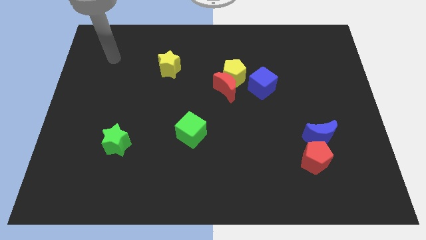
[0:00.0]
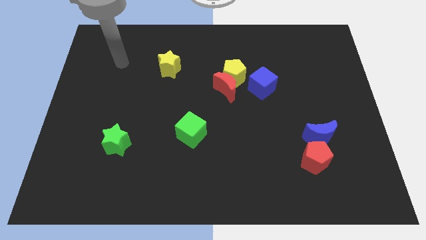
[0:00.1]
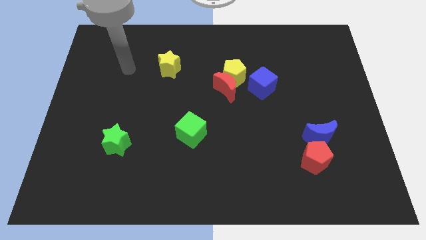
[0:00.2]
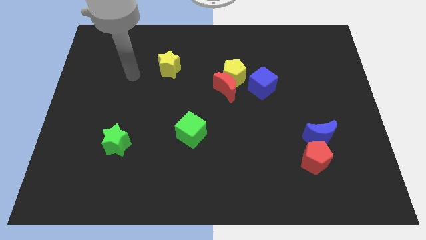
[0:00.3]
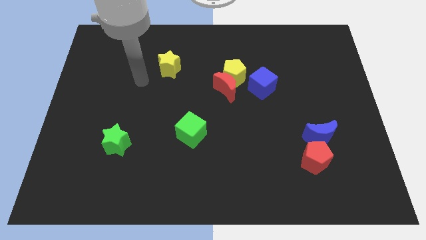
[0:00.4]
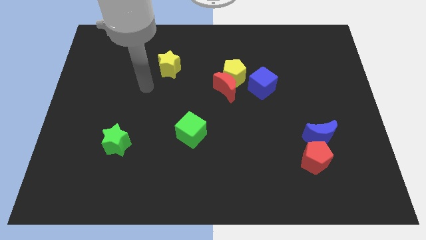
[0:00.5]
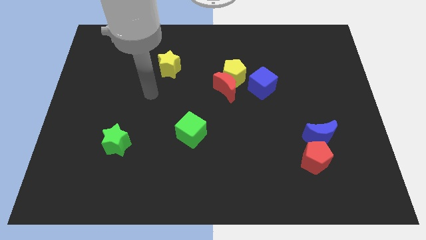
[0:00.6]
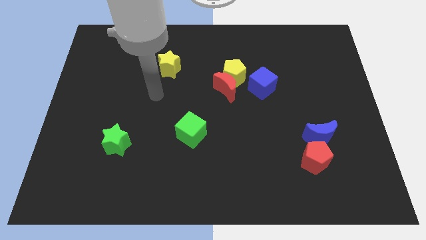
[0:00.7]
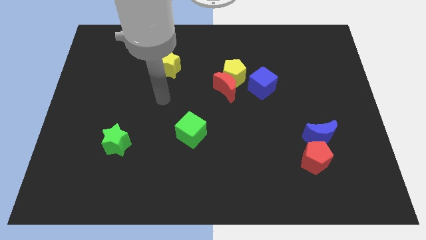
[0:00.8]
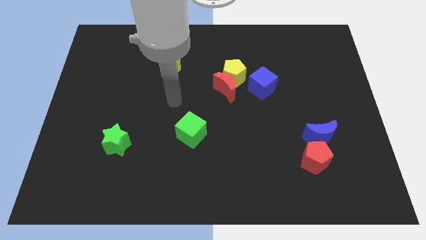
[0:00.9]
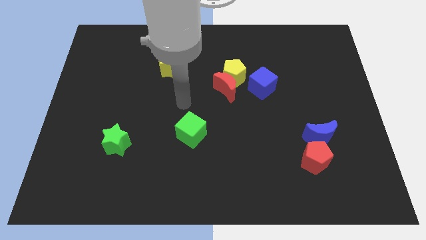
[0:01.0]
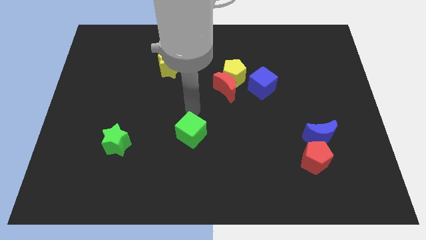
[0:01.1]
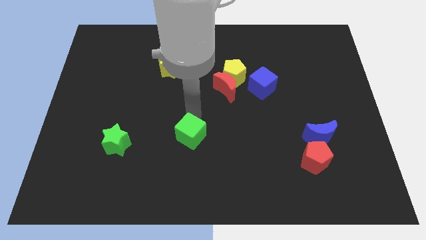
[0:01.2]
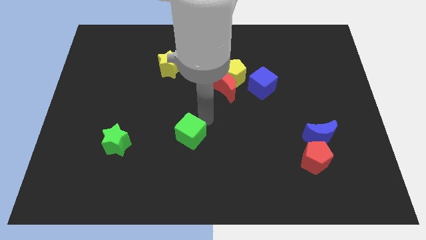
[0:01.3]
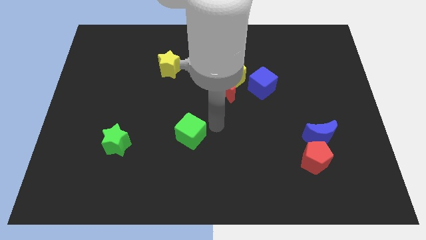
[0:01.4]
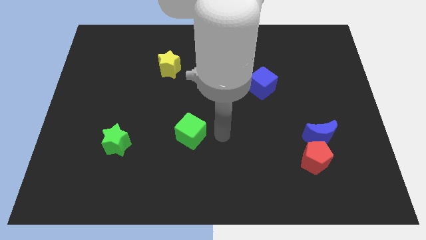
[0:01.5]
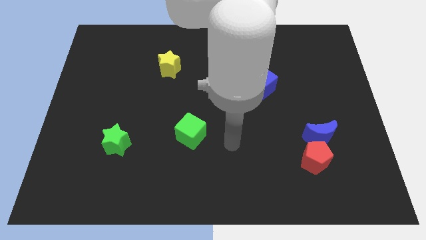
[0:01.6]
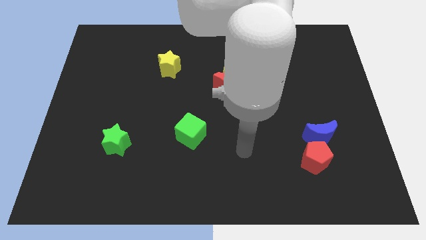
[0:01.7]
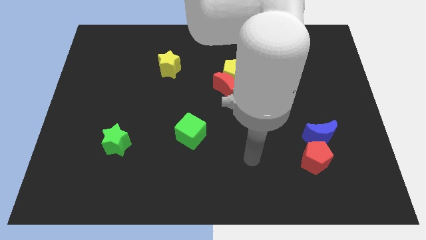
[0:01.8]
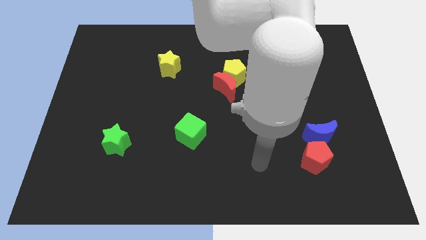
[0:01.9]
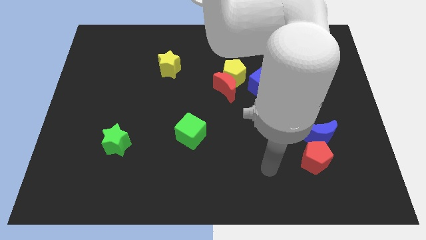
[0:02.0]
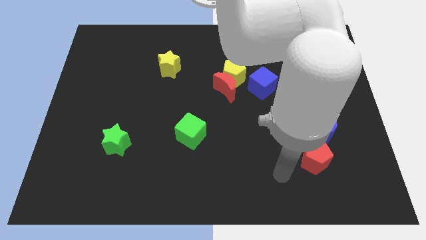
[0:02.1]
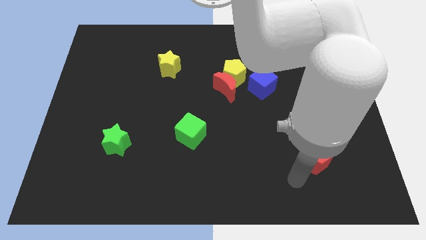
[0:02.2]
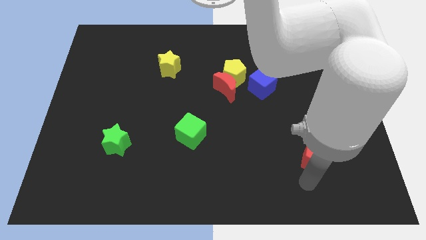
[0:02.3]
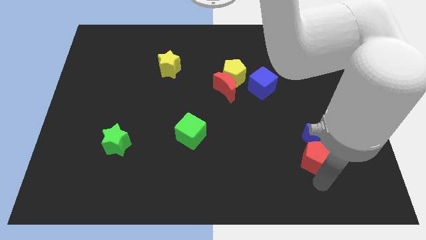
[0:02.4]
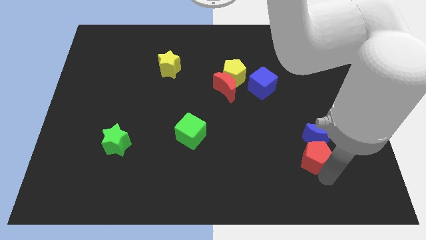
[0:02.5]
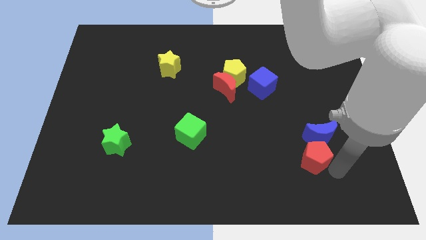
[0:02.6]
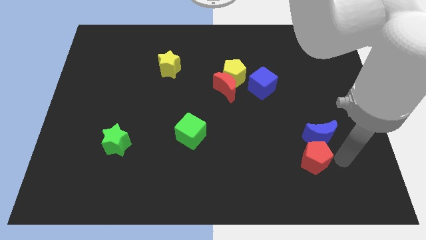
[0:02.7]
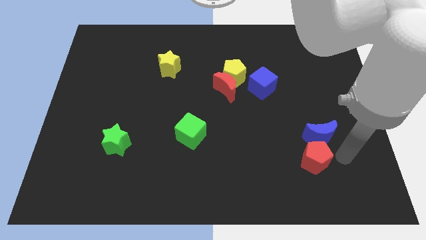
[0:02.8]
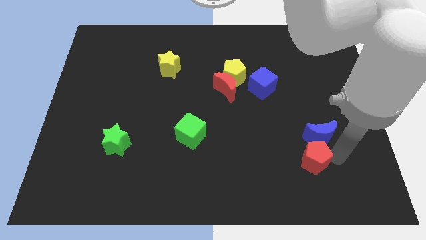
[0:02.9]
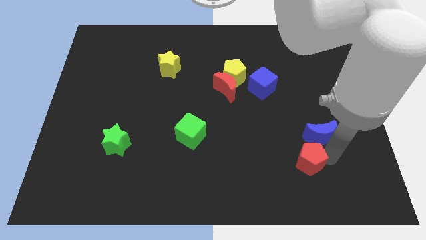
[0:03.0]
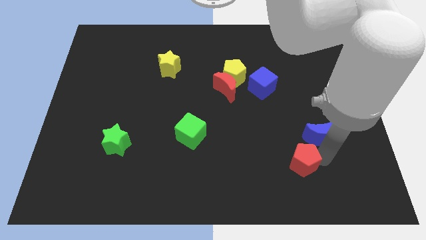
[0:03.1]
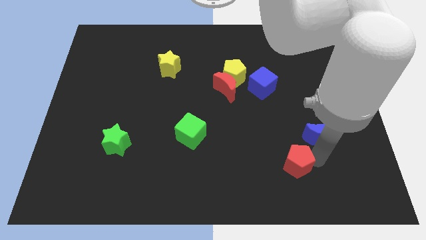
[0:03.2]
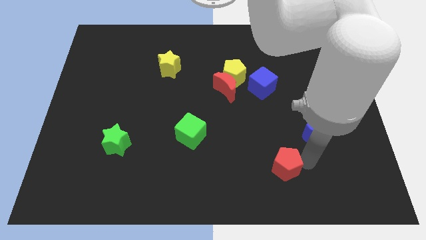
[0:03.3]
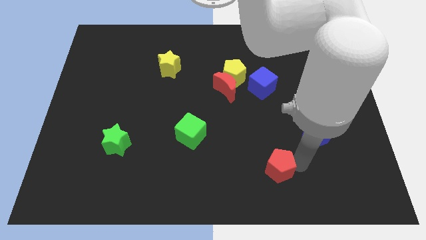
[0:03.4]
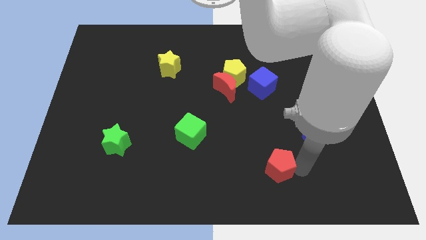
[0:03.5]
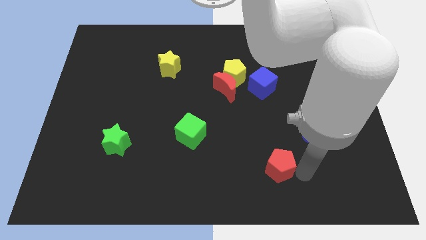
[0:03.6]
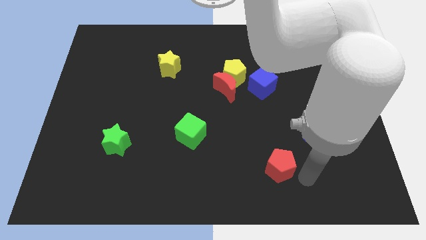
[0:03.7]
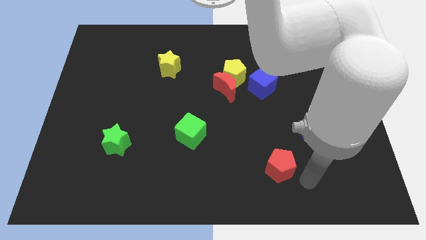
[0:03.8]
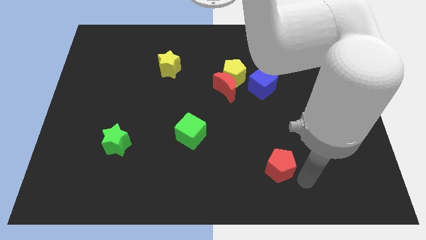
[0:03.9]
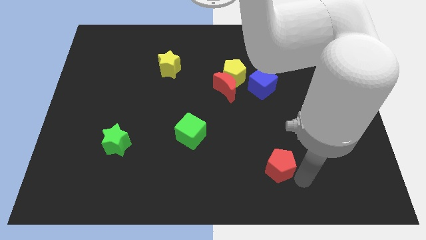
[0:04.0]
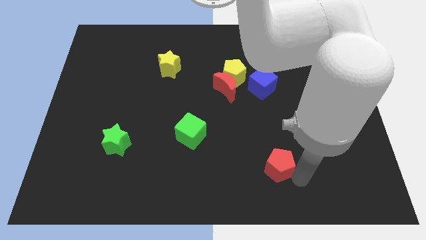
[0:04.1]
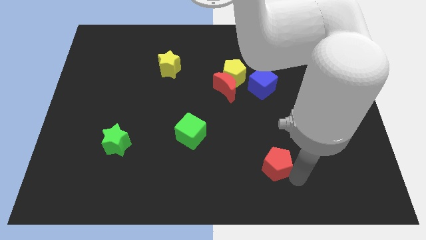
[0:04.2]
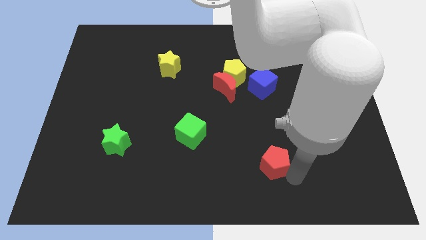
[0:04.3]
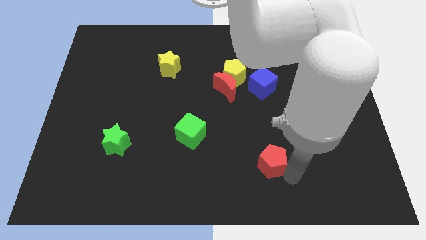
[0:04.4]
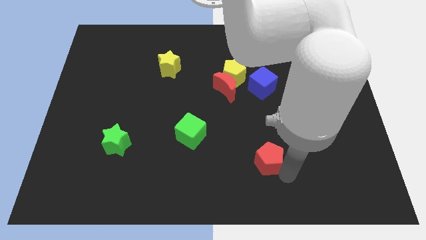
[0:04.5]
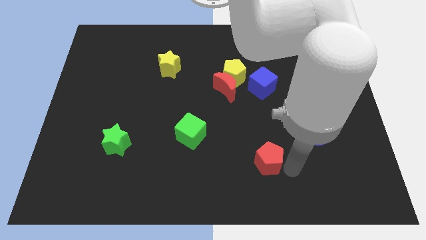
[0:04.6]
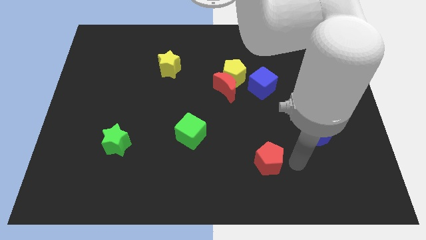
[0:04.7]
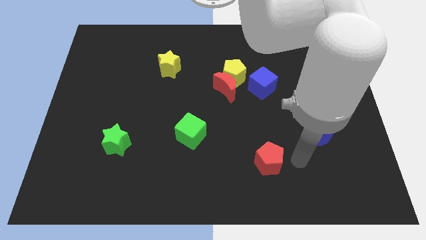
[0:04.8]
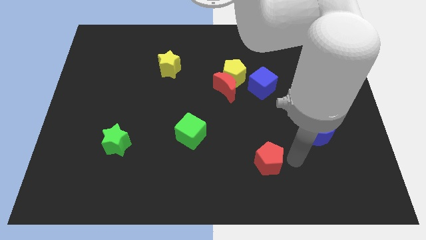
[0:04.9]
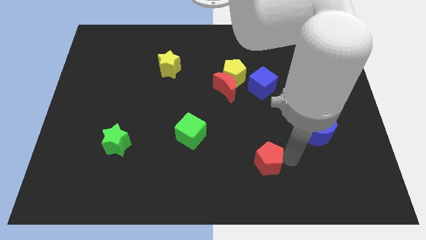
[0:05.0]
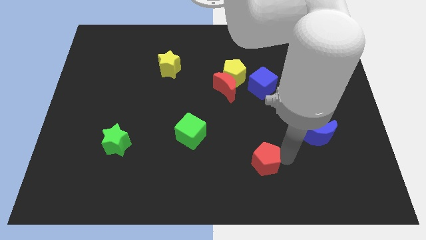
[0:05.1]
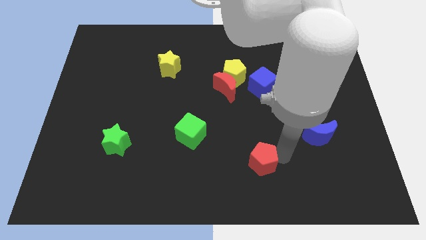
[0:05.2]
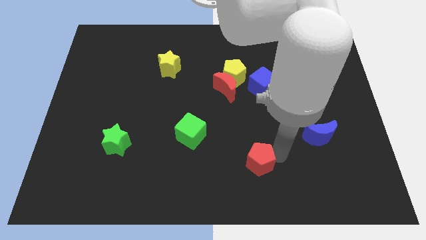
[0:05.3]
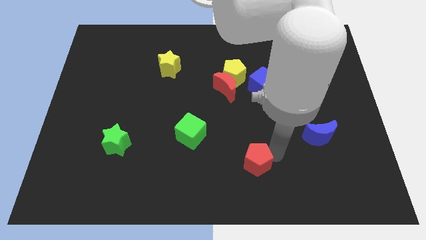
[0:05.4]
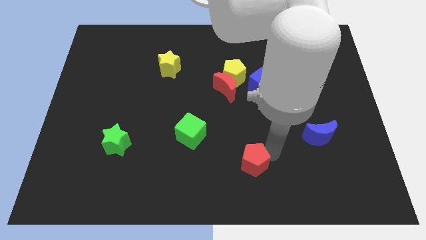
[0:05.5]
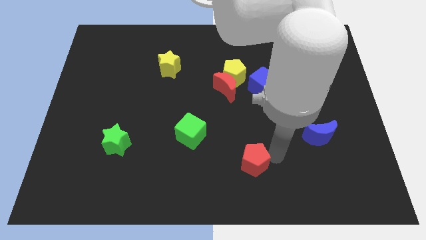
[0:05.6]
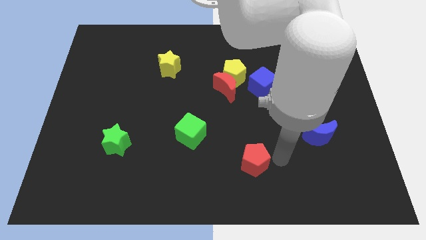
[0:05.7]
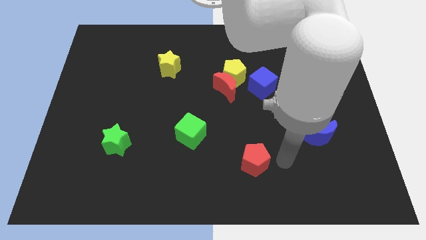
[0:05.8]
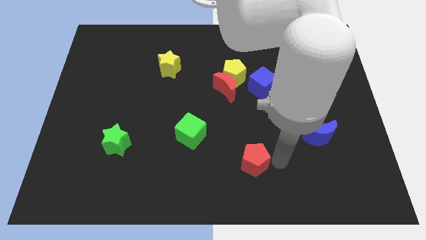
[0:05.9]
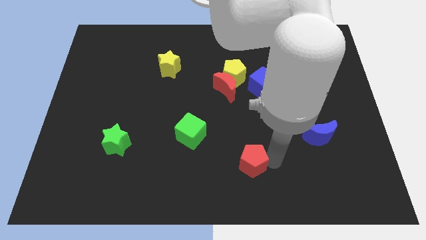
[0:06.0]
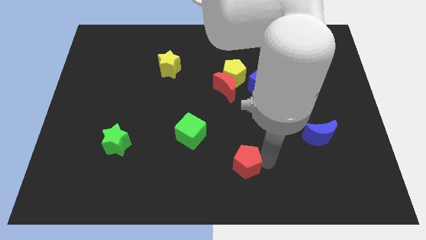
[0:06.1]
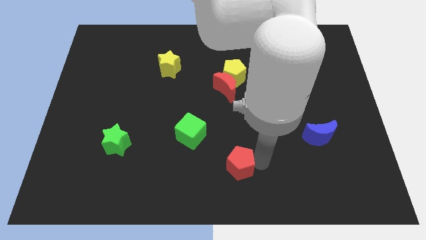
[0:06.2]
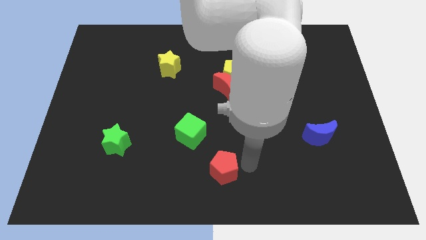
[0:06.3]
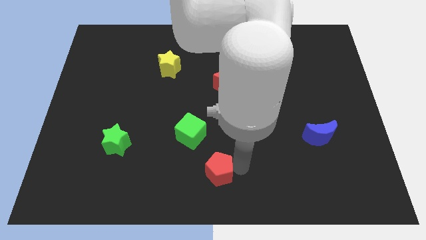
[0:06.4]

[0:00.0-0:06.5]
move the red pentagon left

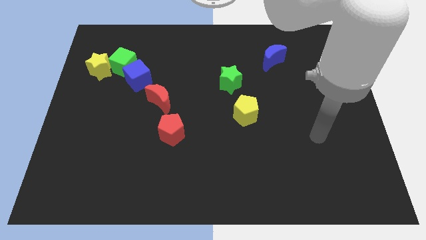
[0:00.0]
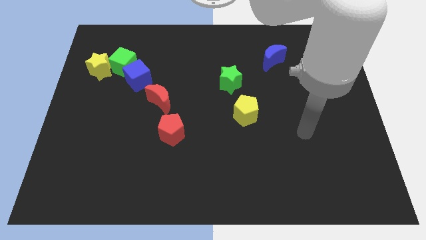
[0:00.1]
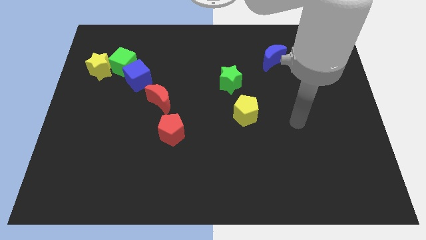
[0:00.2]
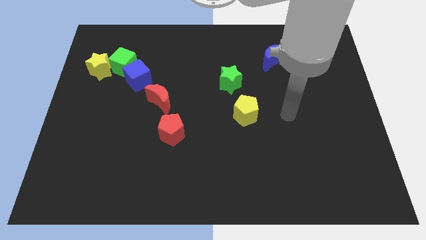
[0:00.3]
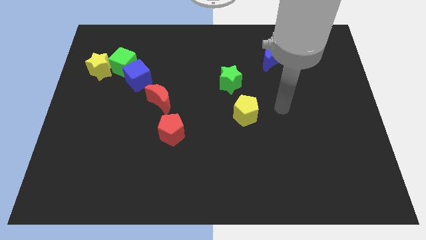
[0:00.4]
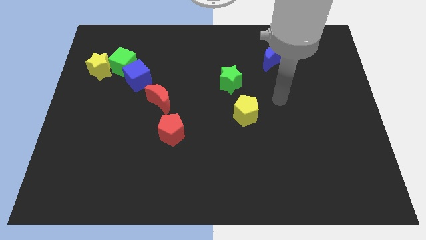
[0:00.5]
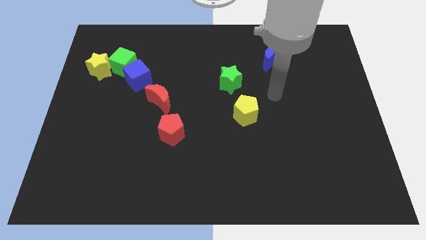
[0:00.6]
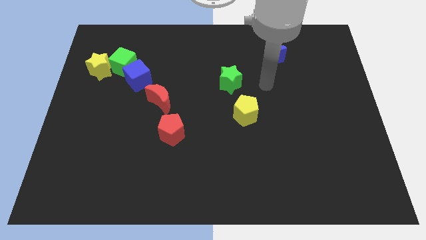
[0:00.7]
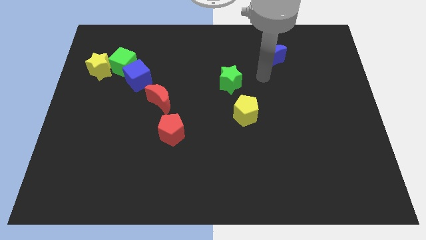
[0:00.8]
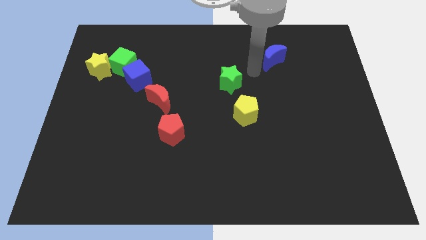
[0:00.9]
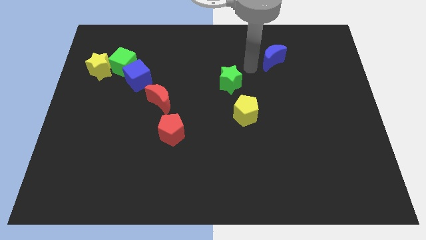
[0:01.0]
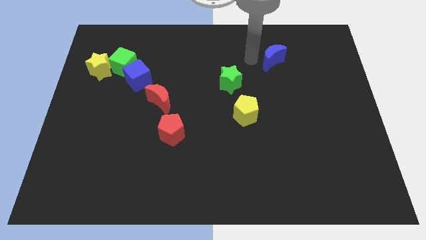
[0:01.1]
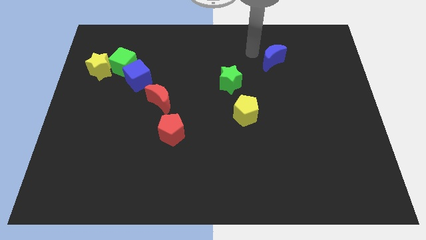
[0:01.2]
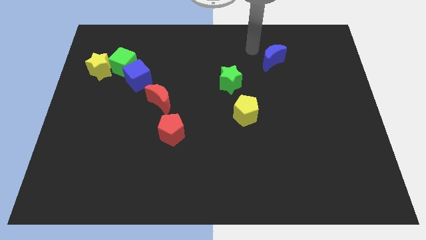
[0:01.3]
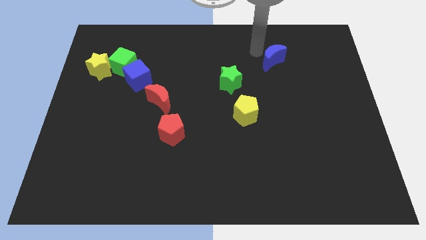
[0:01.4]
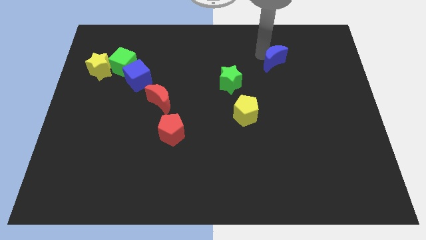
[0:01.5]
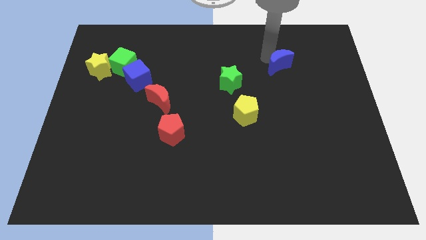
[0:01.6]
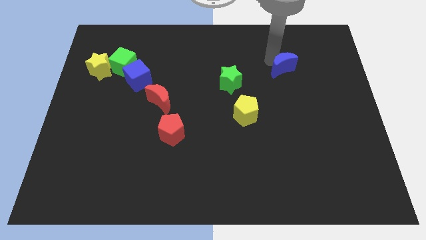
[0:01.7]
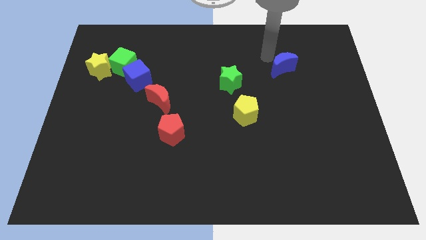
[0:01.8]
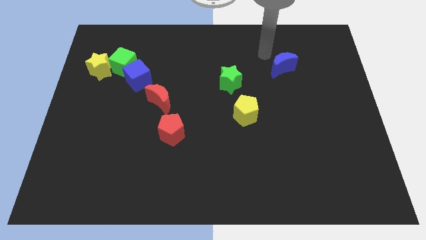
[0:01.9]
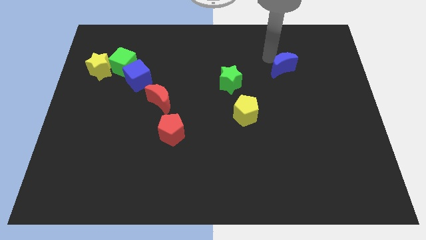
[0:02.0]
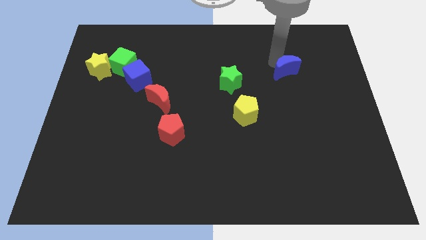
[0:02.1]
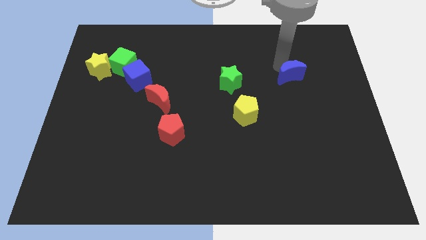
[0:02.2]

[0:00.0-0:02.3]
slide the blue moon down and then to the right slightly
